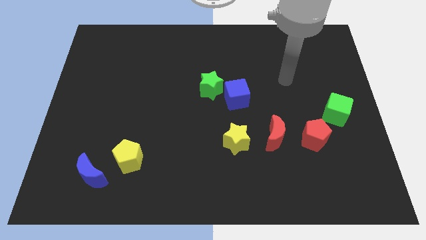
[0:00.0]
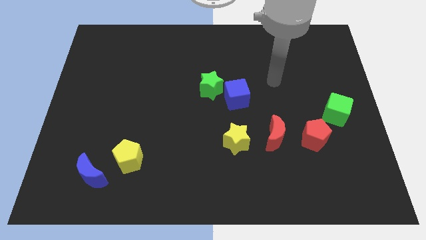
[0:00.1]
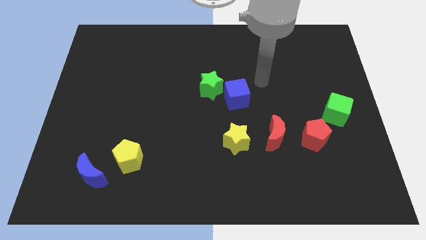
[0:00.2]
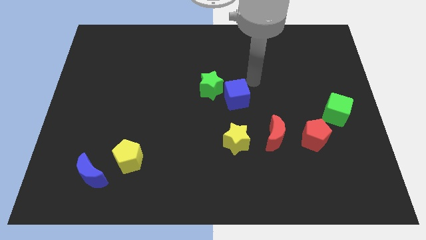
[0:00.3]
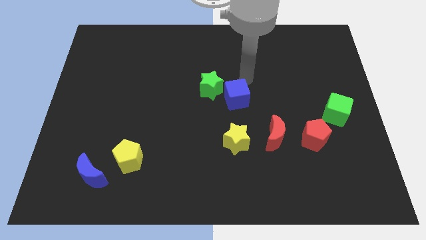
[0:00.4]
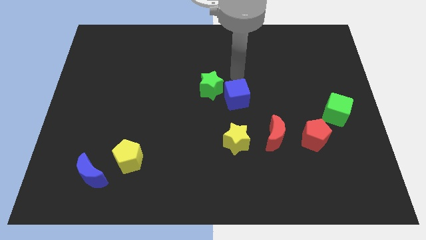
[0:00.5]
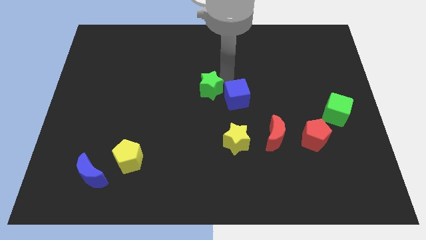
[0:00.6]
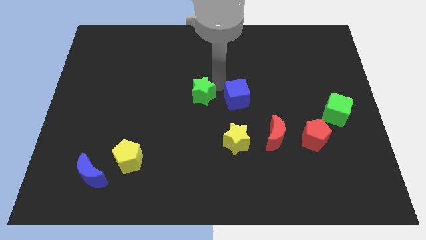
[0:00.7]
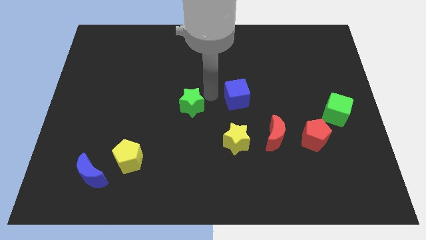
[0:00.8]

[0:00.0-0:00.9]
pull the blue cube apart from the green star

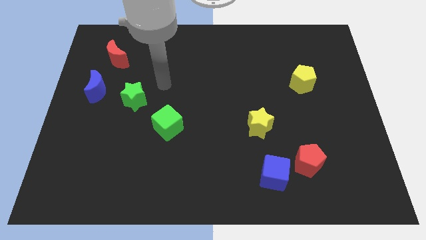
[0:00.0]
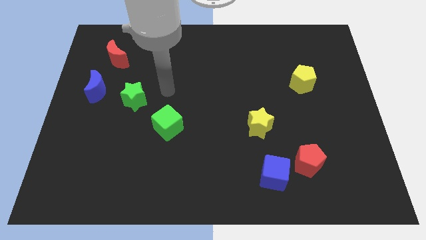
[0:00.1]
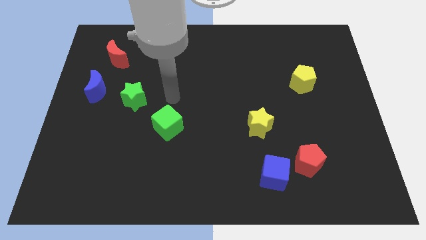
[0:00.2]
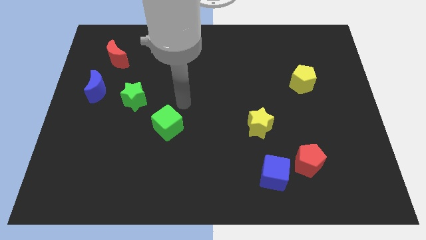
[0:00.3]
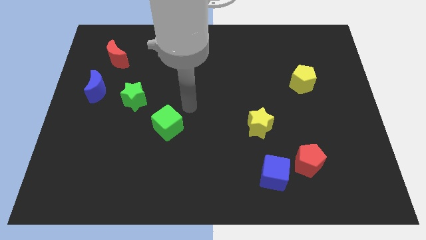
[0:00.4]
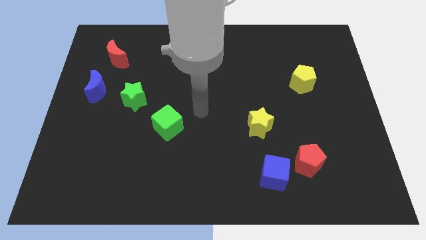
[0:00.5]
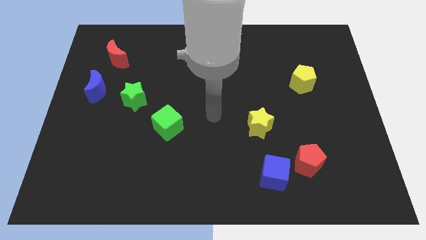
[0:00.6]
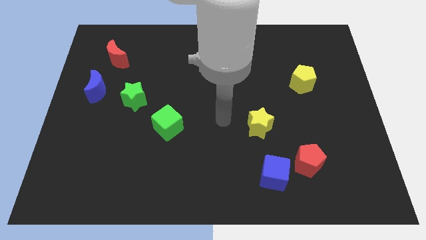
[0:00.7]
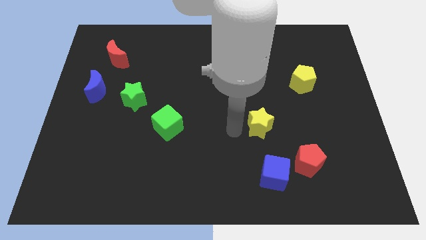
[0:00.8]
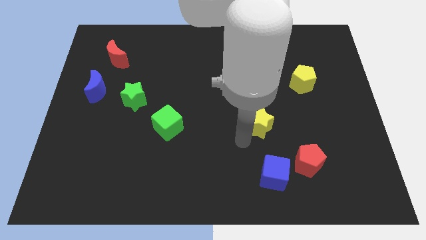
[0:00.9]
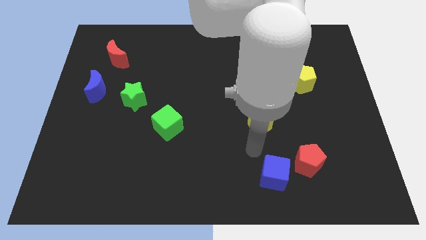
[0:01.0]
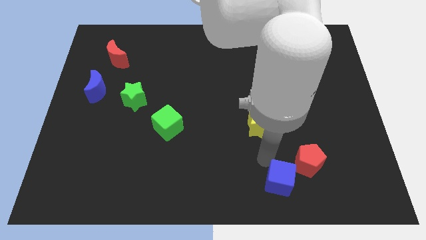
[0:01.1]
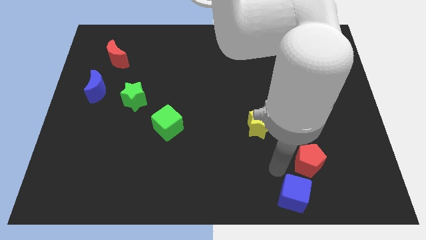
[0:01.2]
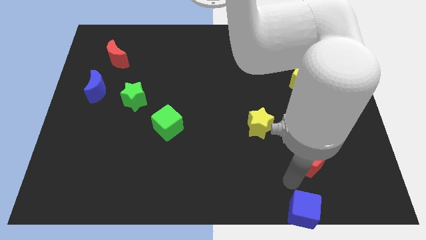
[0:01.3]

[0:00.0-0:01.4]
pull the red pentagon apart from the blue cube

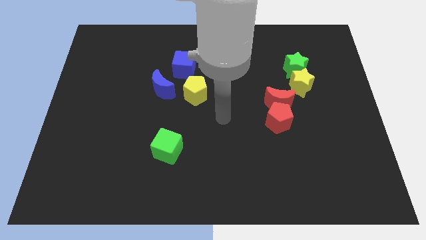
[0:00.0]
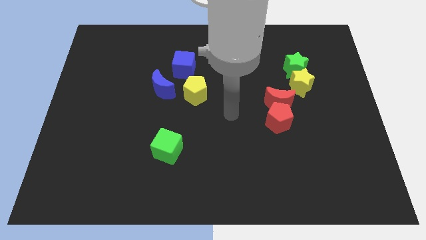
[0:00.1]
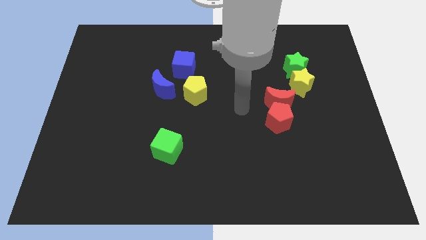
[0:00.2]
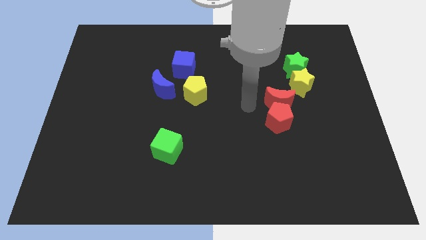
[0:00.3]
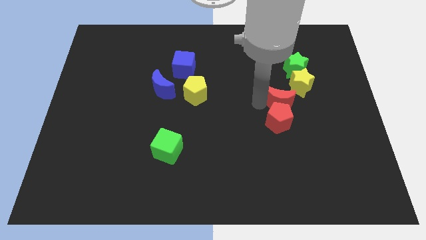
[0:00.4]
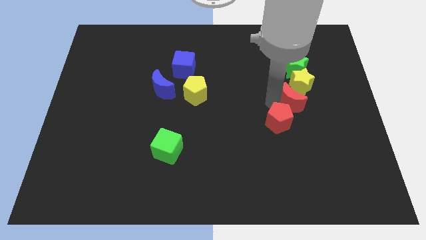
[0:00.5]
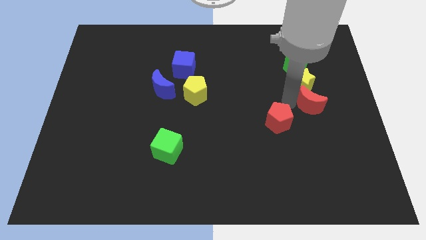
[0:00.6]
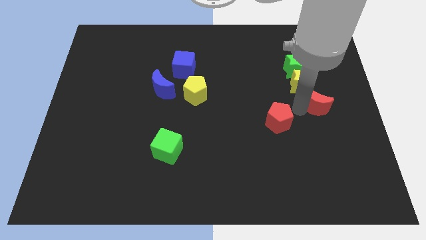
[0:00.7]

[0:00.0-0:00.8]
separate the red pentagon from the red moon

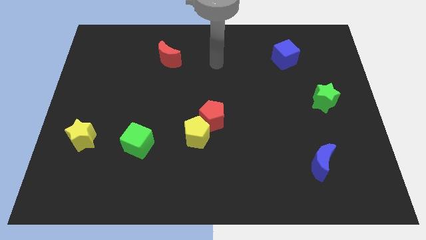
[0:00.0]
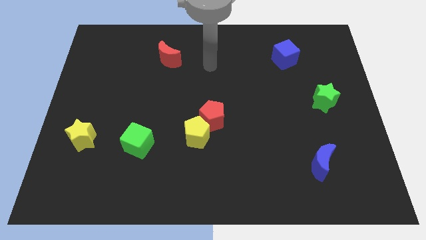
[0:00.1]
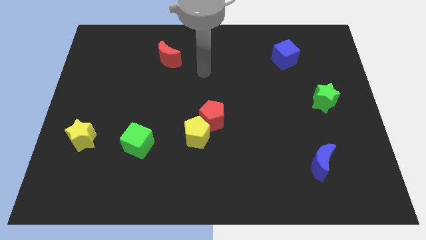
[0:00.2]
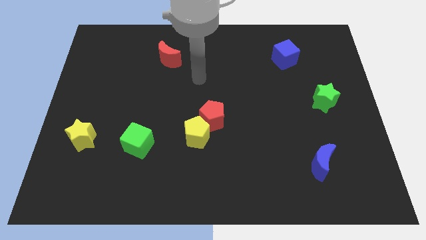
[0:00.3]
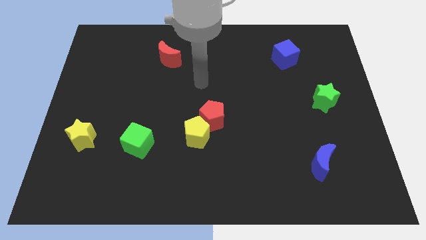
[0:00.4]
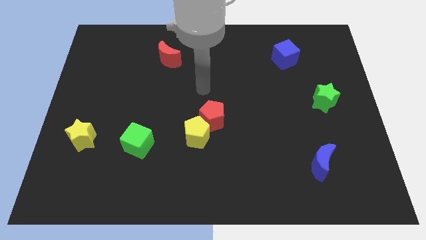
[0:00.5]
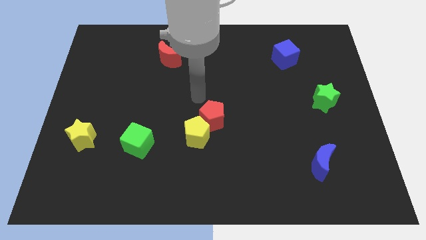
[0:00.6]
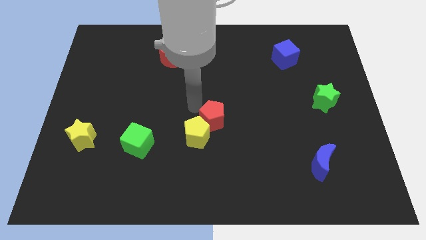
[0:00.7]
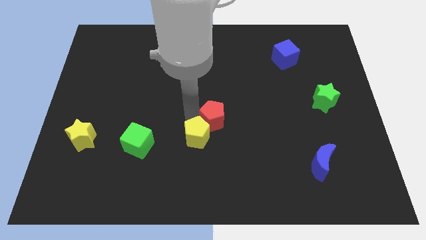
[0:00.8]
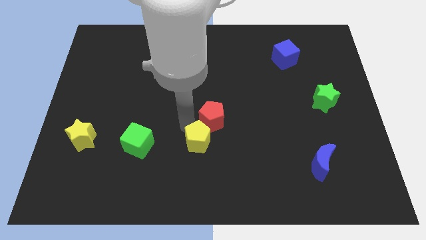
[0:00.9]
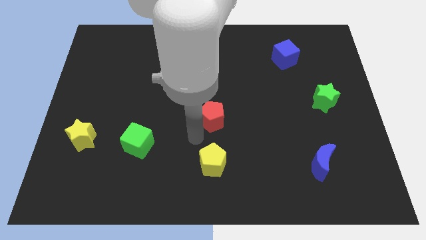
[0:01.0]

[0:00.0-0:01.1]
move the red pentagon away from the yellow pentagon

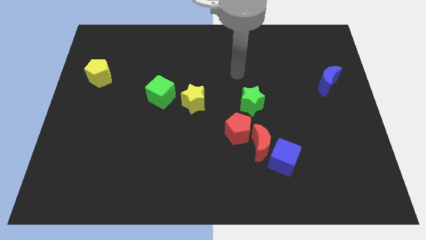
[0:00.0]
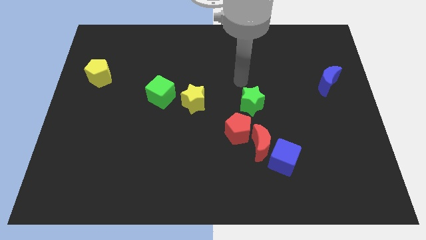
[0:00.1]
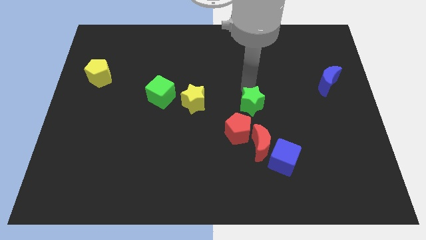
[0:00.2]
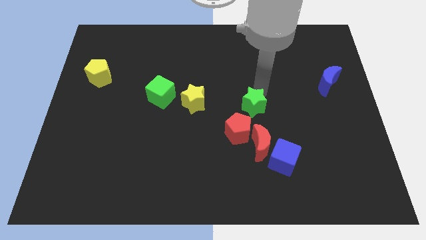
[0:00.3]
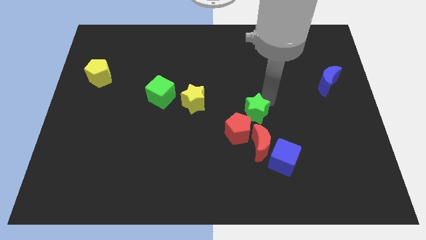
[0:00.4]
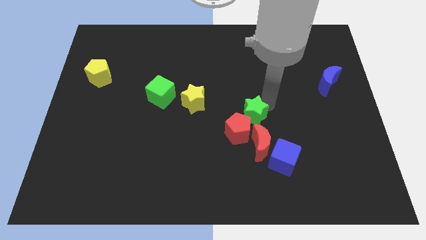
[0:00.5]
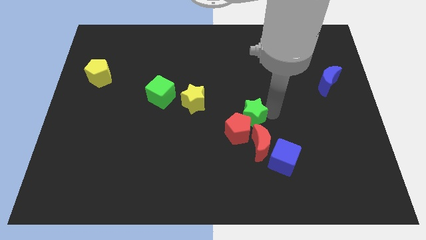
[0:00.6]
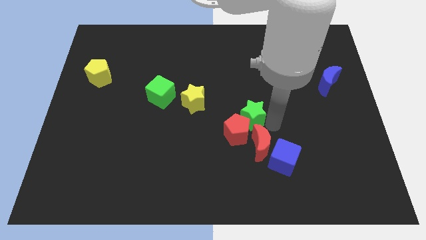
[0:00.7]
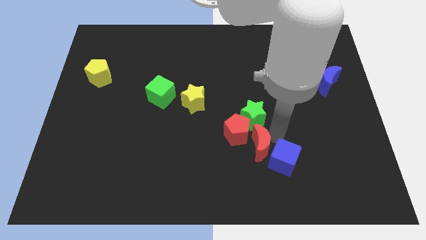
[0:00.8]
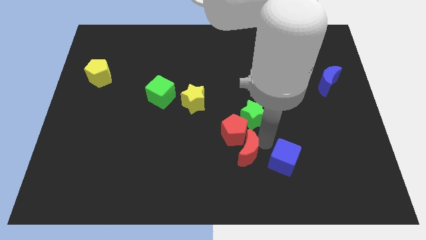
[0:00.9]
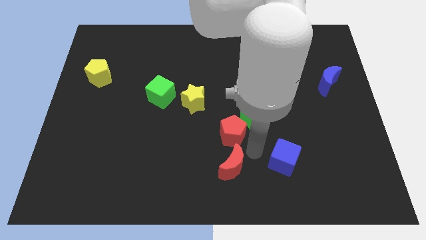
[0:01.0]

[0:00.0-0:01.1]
pull the blue cube apart from the red moon

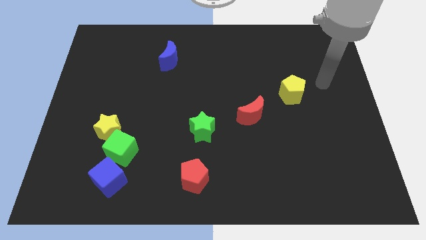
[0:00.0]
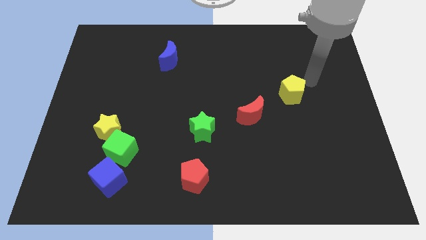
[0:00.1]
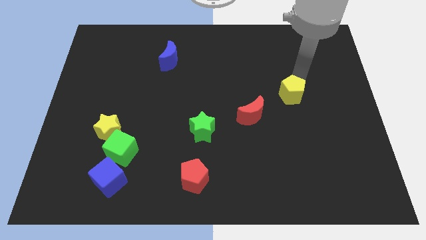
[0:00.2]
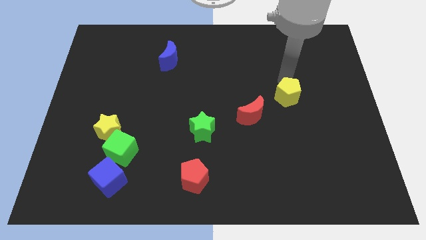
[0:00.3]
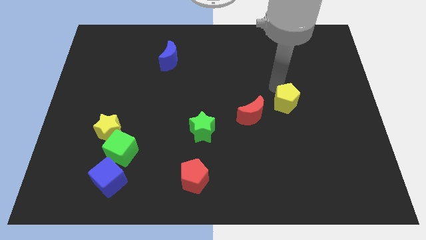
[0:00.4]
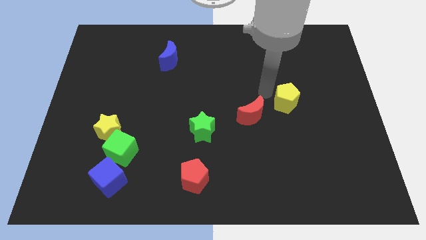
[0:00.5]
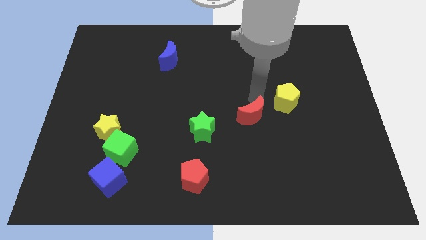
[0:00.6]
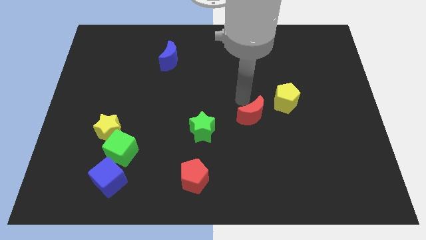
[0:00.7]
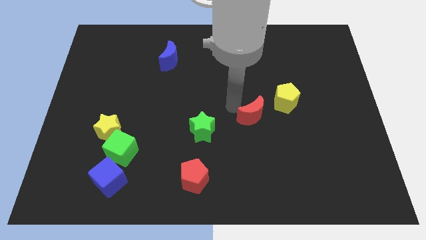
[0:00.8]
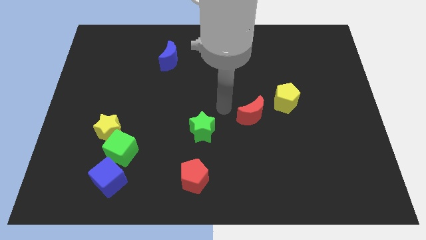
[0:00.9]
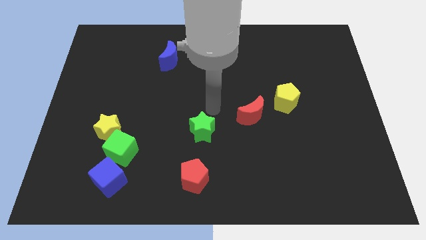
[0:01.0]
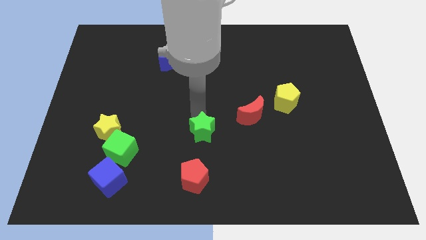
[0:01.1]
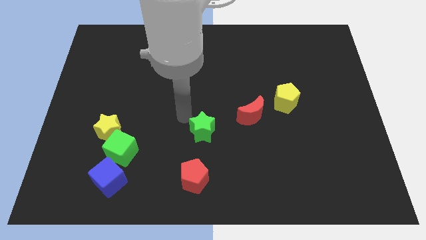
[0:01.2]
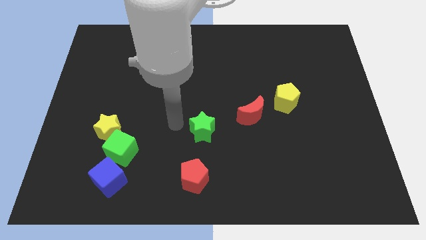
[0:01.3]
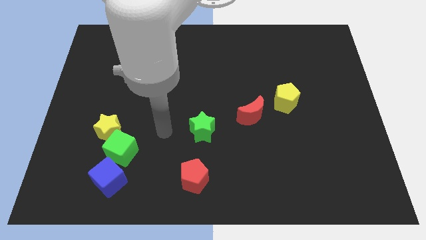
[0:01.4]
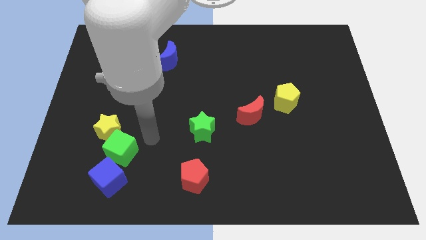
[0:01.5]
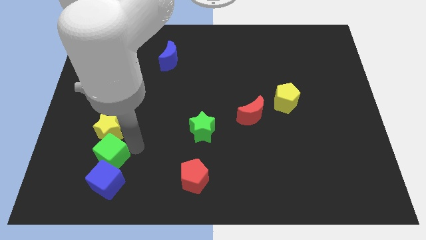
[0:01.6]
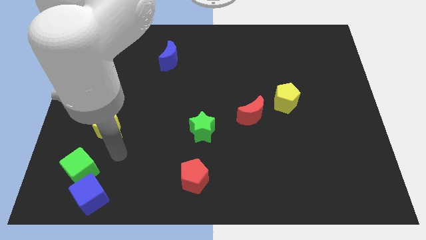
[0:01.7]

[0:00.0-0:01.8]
pull the yellow star apart from the green cube

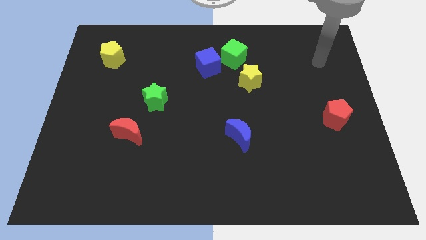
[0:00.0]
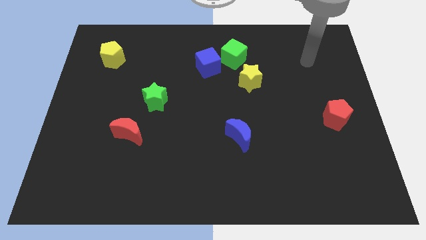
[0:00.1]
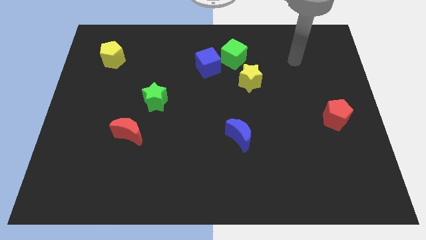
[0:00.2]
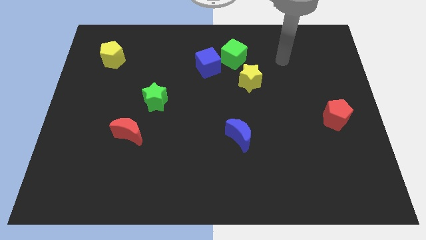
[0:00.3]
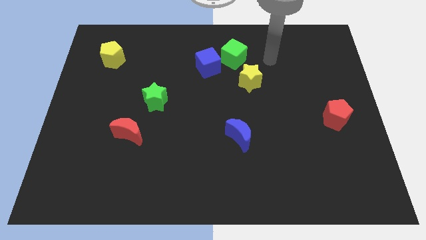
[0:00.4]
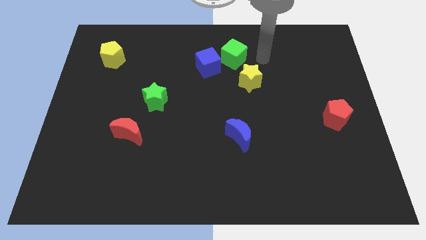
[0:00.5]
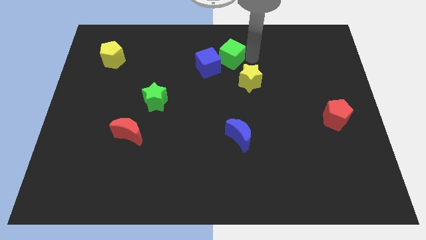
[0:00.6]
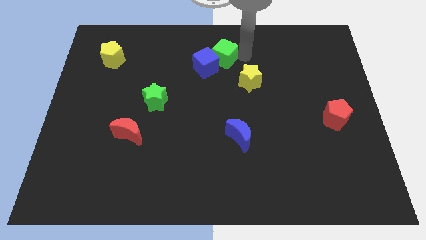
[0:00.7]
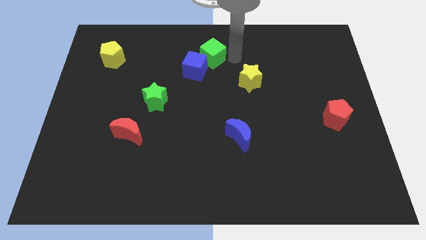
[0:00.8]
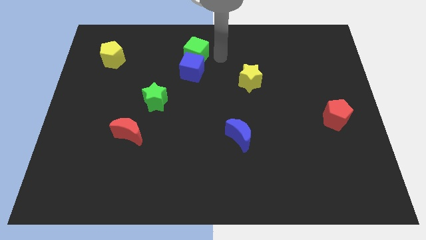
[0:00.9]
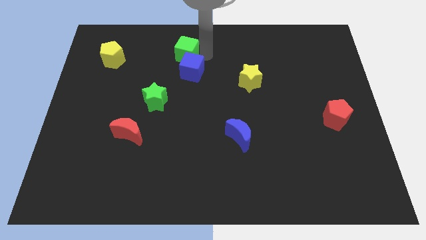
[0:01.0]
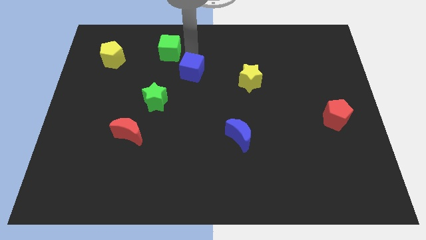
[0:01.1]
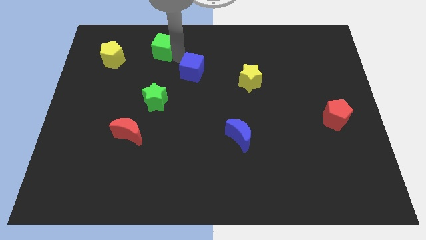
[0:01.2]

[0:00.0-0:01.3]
move the blue cube away from the green cube

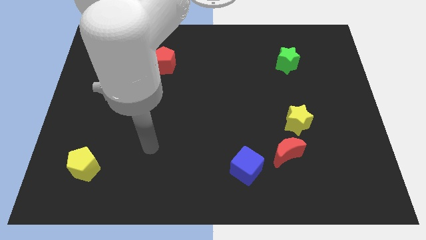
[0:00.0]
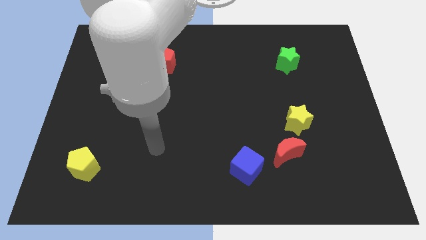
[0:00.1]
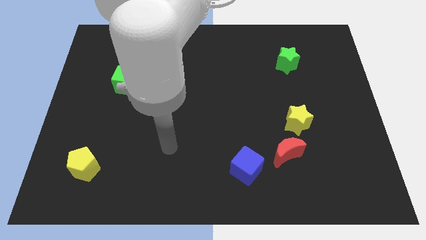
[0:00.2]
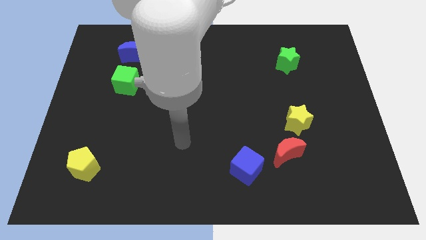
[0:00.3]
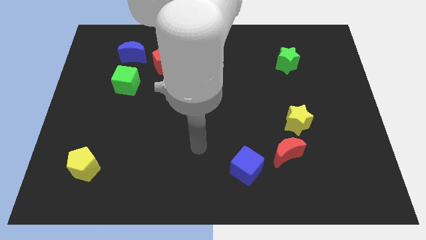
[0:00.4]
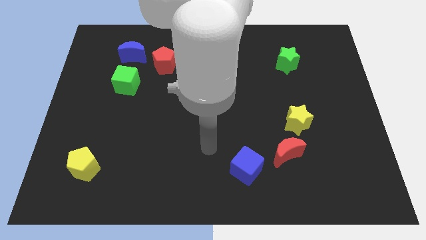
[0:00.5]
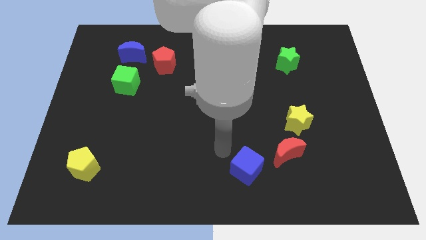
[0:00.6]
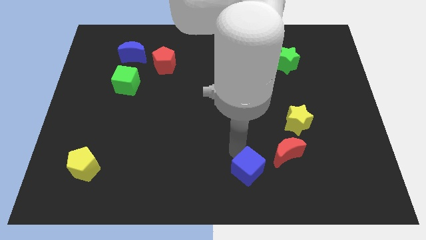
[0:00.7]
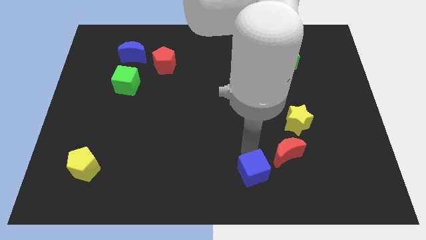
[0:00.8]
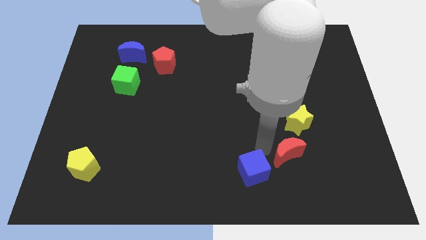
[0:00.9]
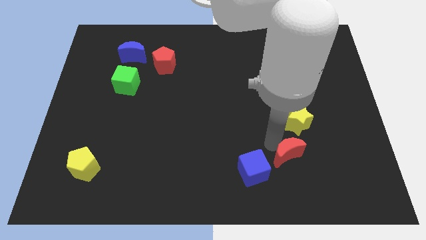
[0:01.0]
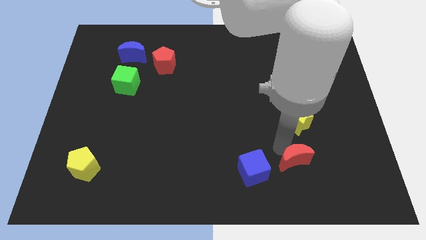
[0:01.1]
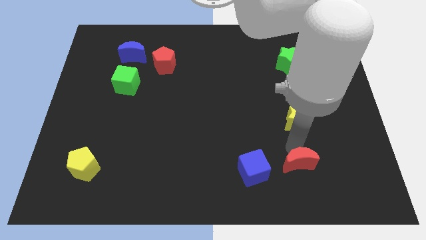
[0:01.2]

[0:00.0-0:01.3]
move the yellow star away from the red moon
